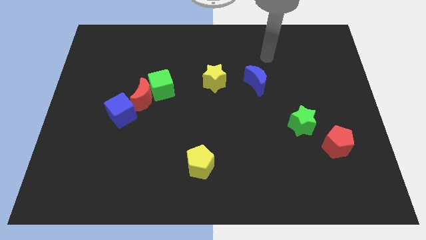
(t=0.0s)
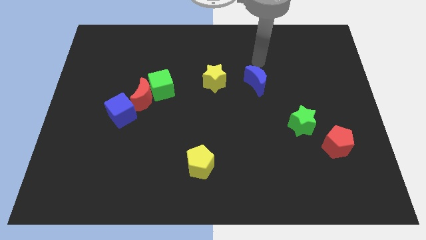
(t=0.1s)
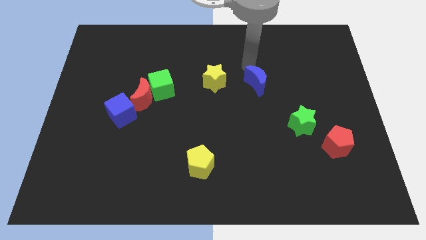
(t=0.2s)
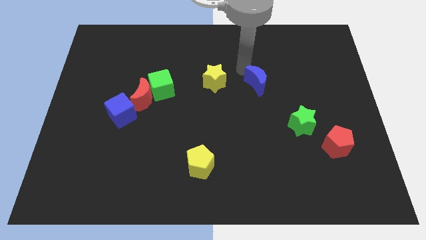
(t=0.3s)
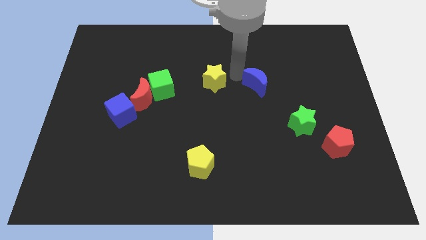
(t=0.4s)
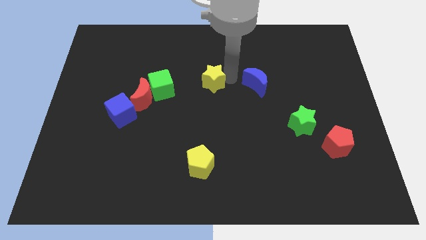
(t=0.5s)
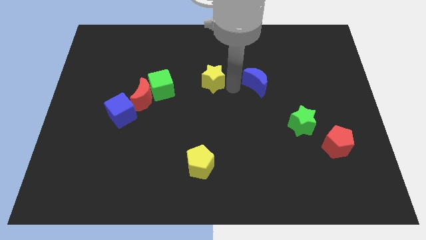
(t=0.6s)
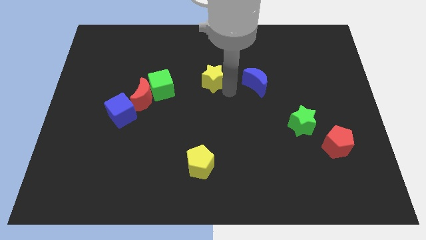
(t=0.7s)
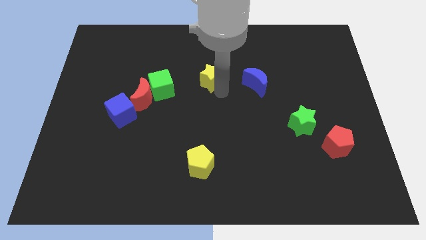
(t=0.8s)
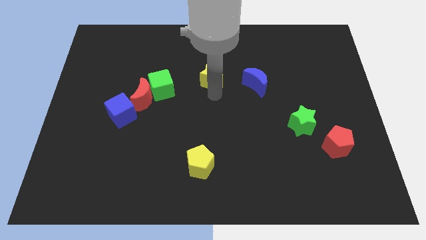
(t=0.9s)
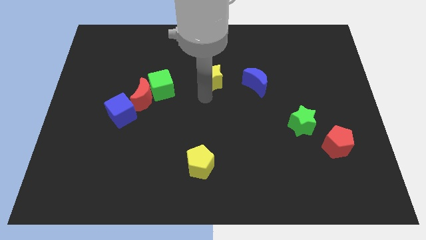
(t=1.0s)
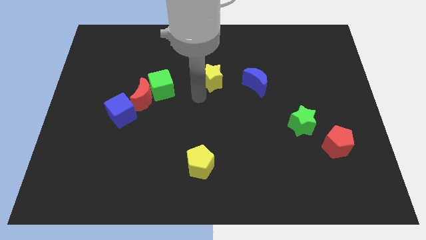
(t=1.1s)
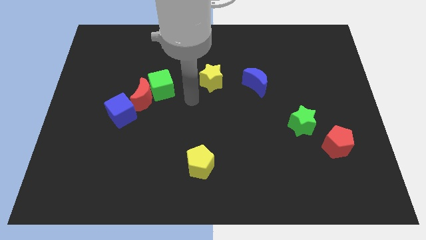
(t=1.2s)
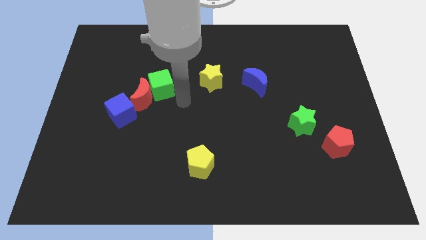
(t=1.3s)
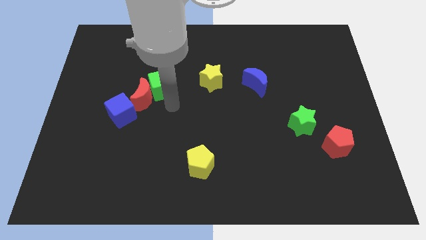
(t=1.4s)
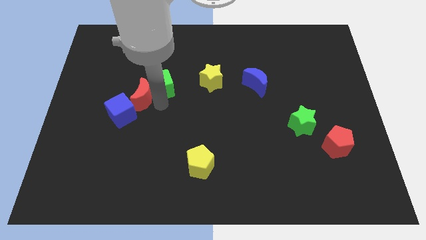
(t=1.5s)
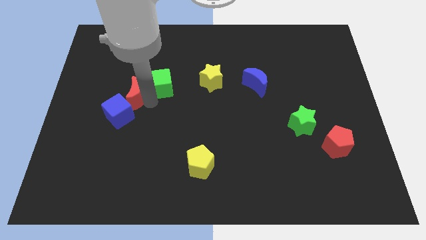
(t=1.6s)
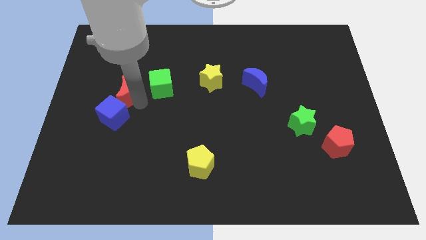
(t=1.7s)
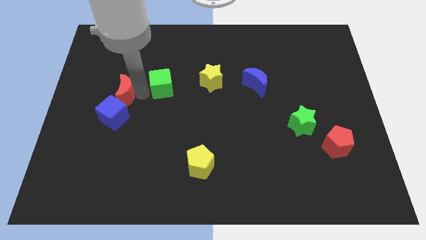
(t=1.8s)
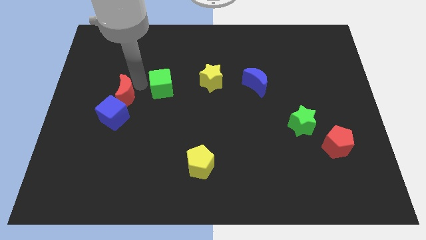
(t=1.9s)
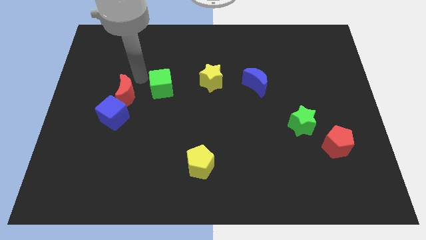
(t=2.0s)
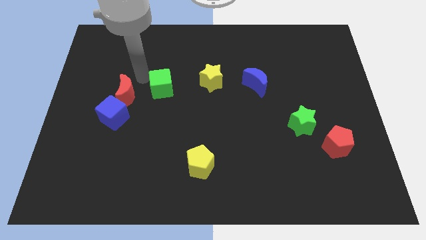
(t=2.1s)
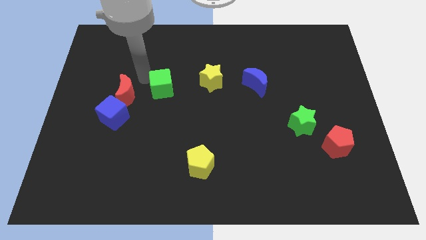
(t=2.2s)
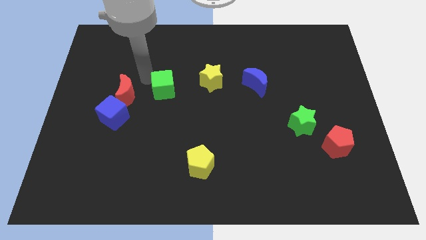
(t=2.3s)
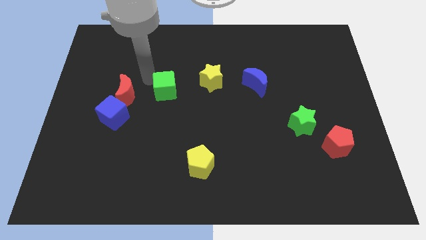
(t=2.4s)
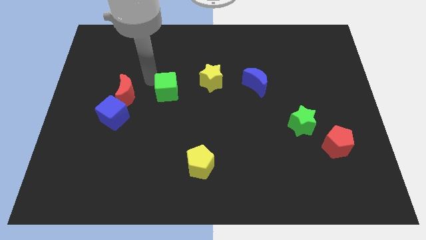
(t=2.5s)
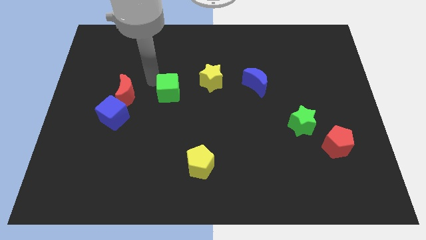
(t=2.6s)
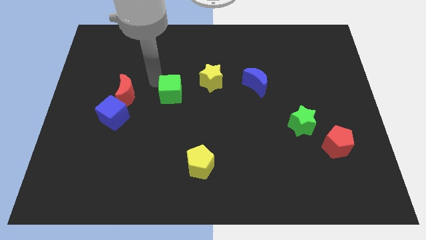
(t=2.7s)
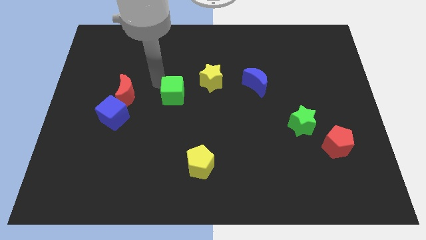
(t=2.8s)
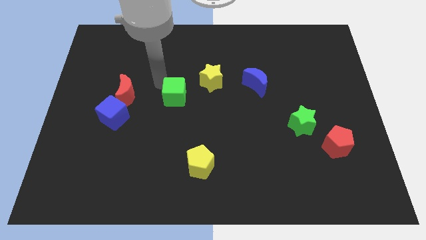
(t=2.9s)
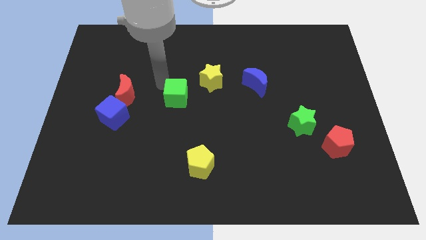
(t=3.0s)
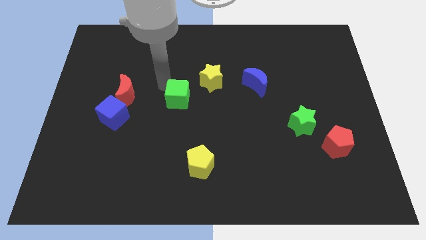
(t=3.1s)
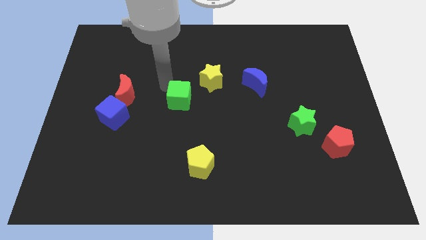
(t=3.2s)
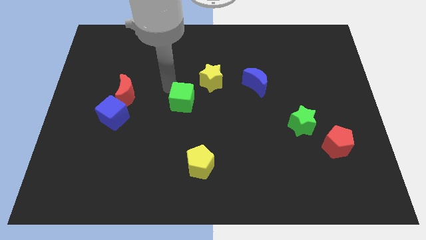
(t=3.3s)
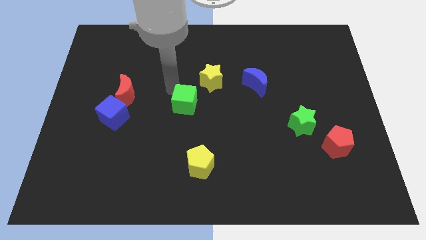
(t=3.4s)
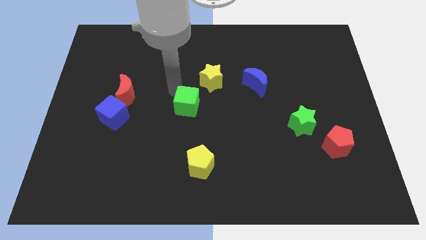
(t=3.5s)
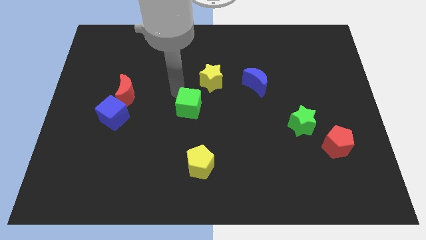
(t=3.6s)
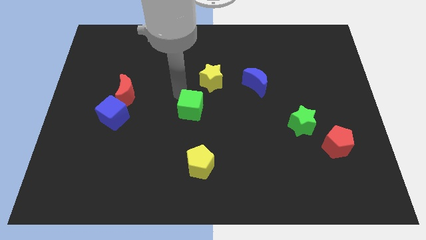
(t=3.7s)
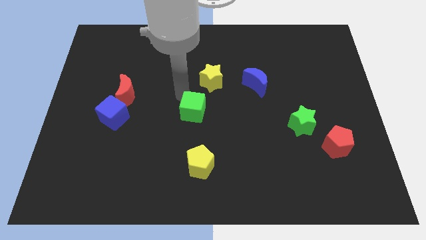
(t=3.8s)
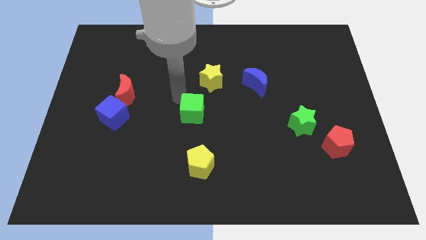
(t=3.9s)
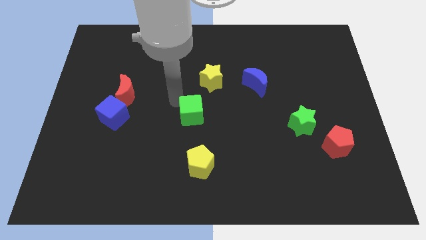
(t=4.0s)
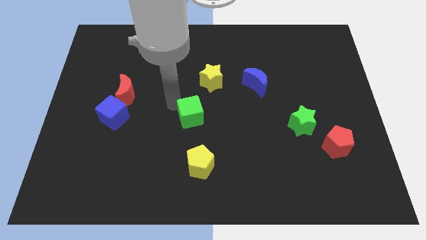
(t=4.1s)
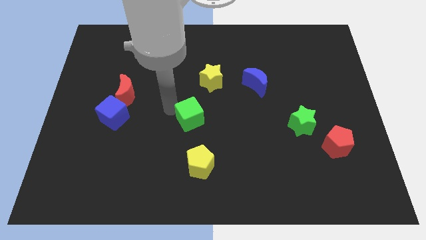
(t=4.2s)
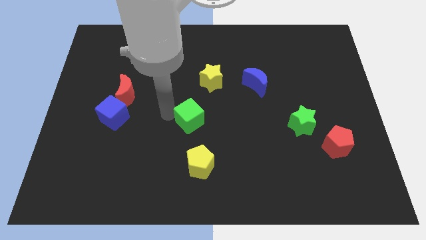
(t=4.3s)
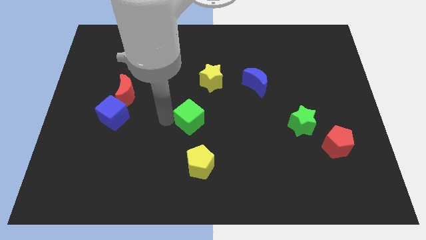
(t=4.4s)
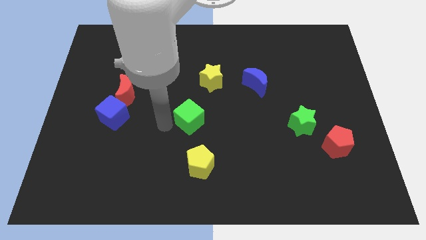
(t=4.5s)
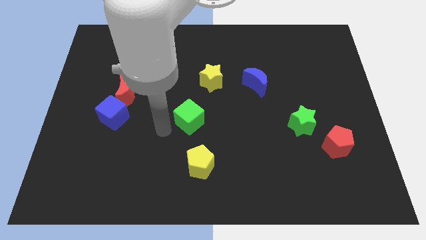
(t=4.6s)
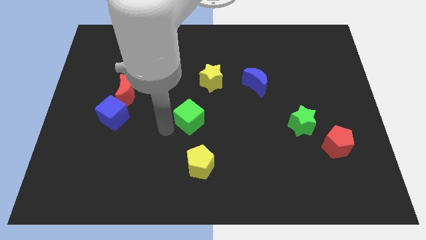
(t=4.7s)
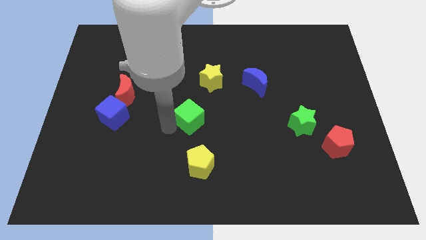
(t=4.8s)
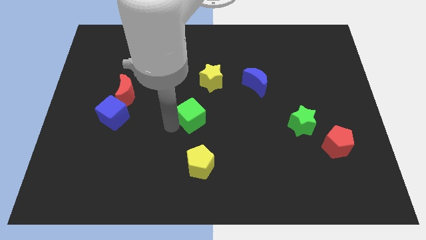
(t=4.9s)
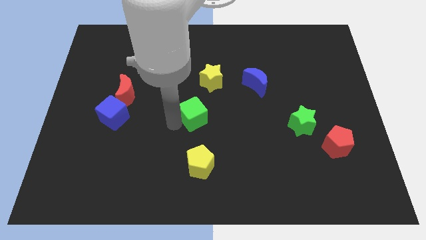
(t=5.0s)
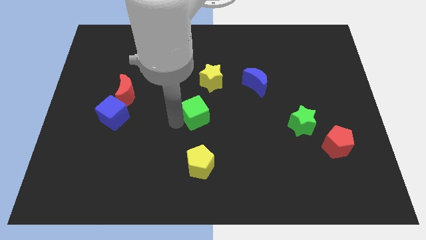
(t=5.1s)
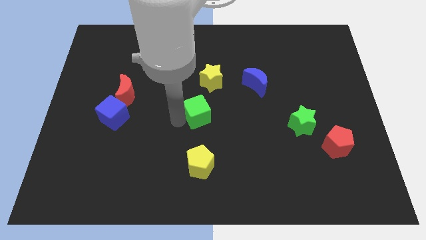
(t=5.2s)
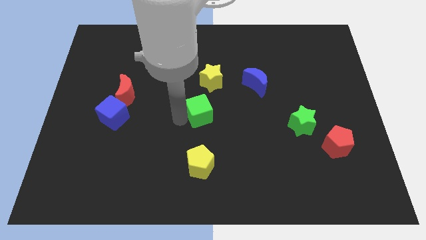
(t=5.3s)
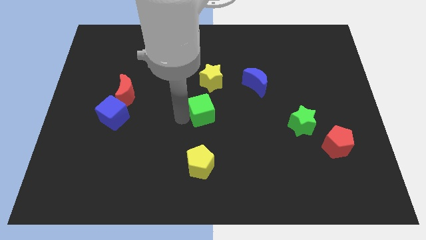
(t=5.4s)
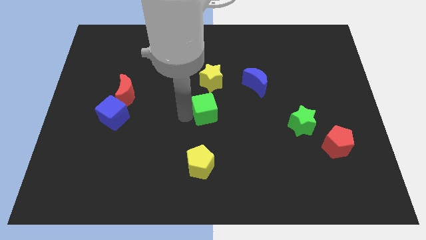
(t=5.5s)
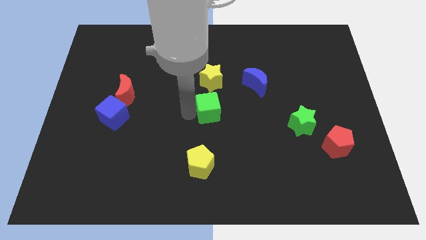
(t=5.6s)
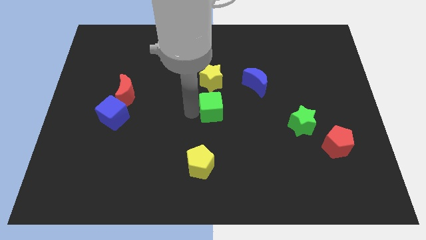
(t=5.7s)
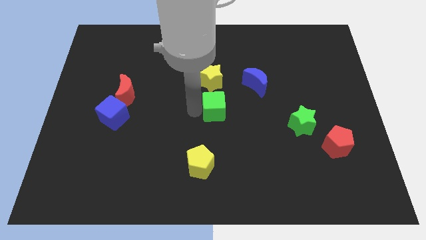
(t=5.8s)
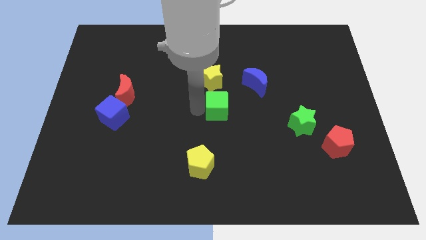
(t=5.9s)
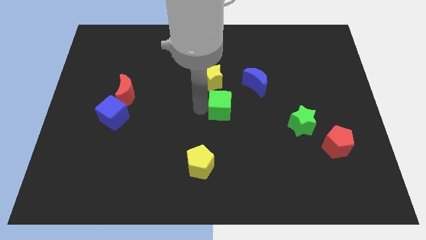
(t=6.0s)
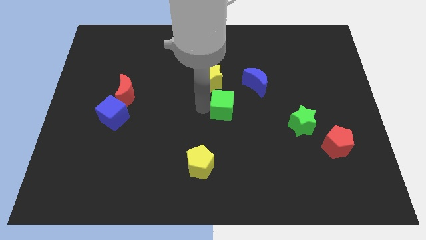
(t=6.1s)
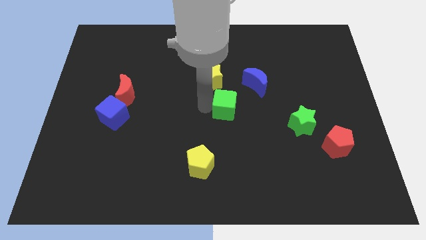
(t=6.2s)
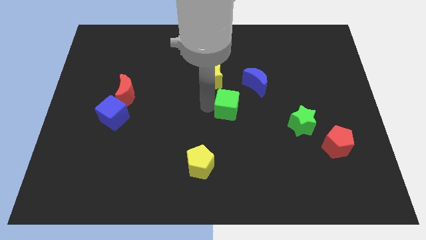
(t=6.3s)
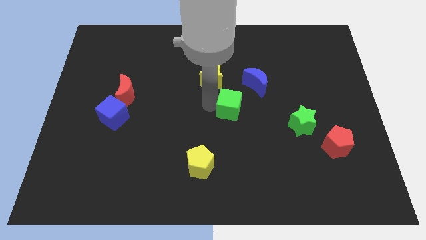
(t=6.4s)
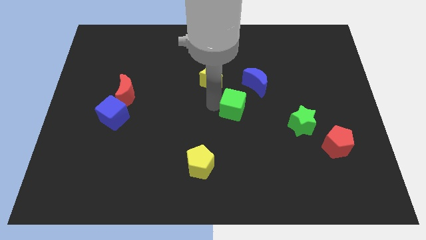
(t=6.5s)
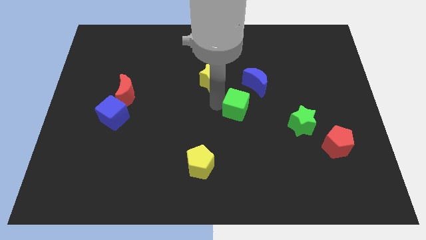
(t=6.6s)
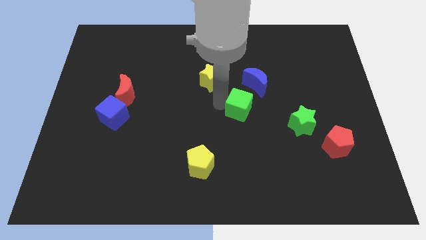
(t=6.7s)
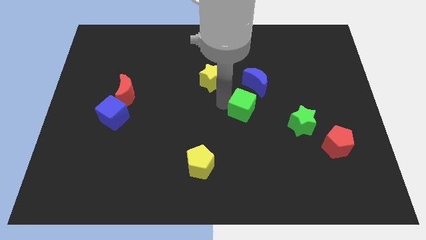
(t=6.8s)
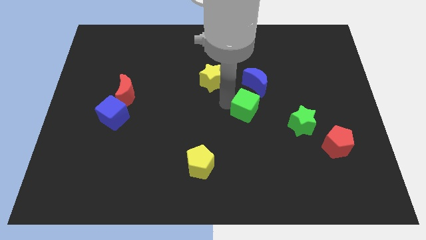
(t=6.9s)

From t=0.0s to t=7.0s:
move the green cube to the left of the green star
